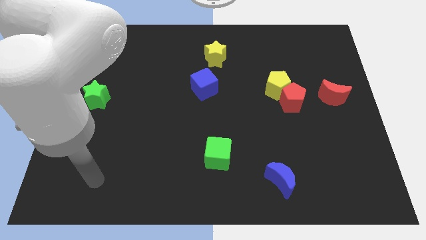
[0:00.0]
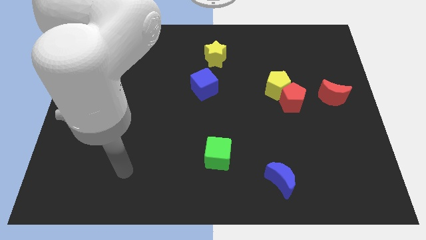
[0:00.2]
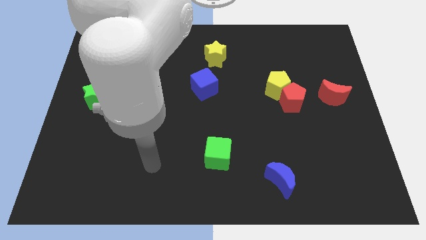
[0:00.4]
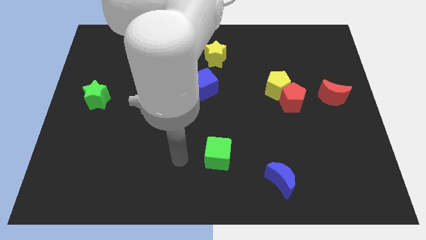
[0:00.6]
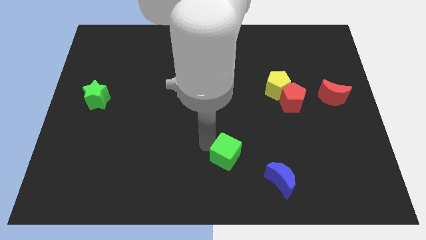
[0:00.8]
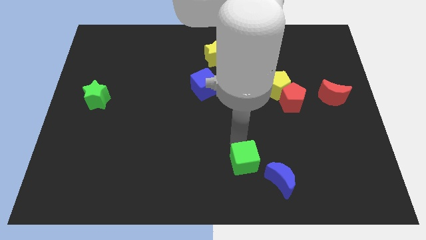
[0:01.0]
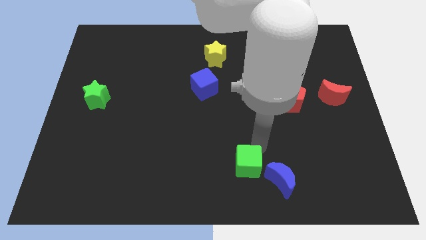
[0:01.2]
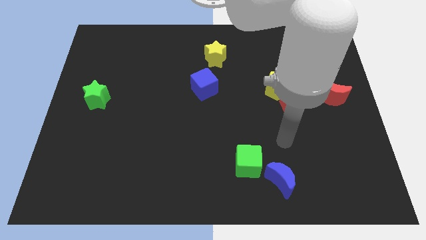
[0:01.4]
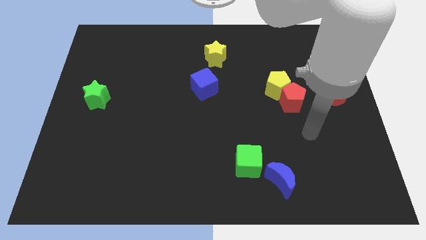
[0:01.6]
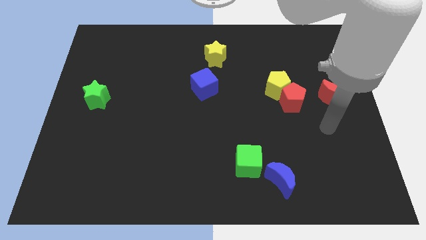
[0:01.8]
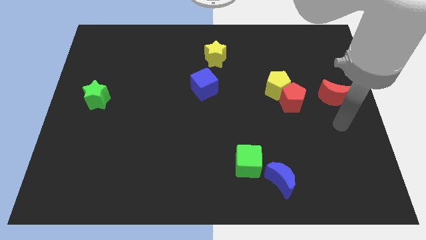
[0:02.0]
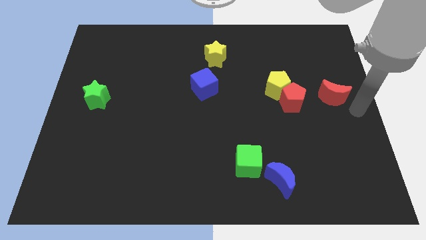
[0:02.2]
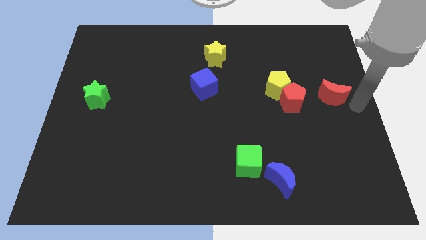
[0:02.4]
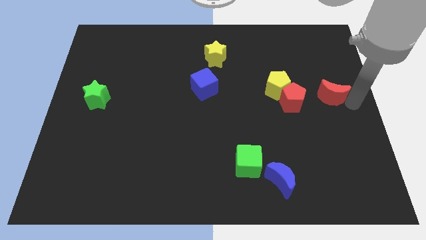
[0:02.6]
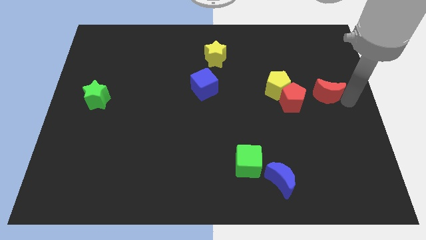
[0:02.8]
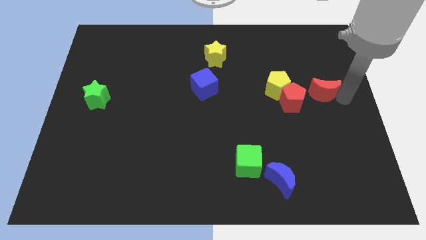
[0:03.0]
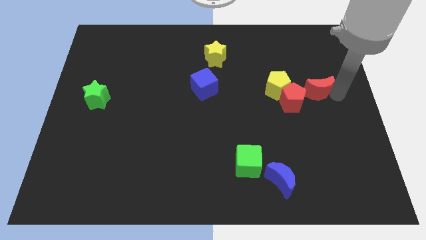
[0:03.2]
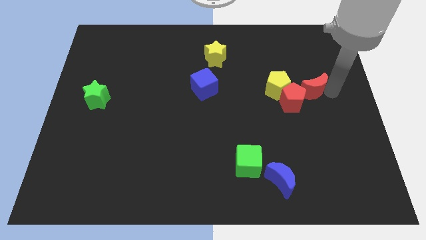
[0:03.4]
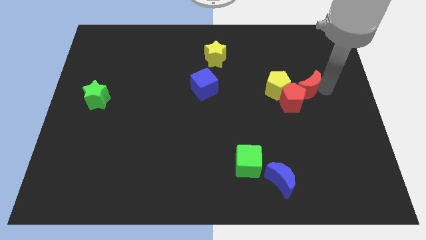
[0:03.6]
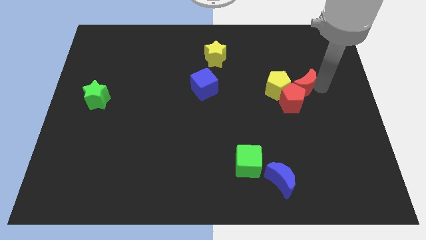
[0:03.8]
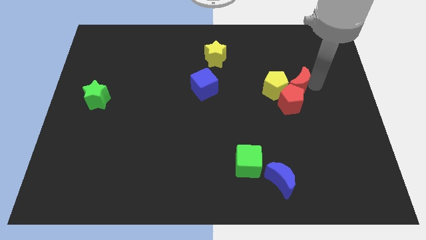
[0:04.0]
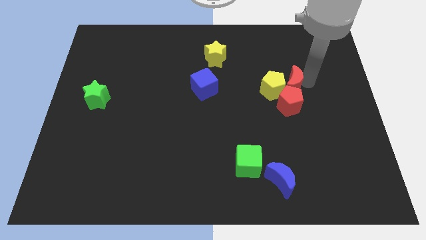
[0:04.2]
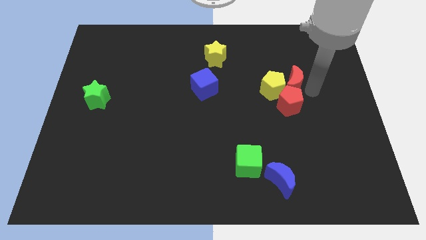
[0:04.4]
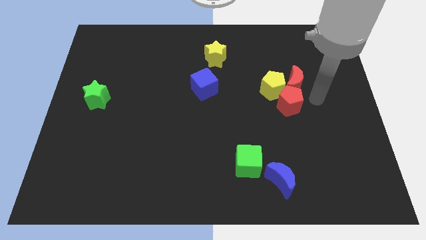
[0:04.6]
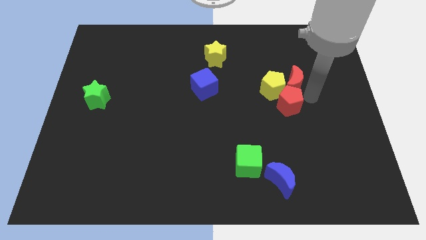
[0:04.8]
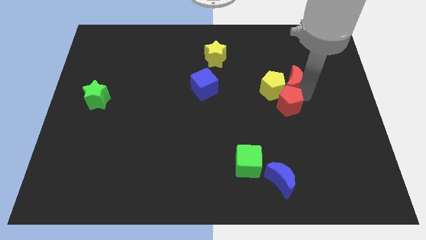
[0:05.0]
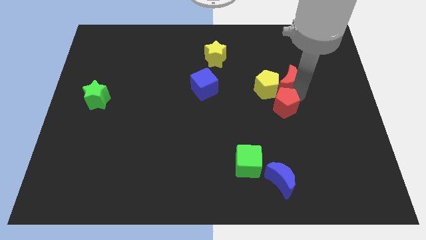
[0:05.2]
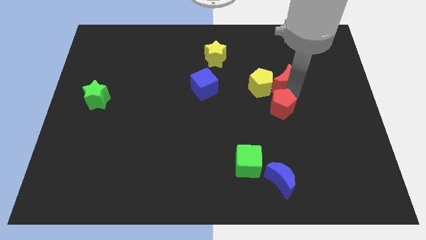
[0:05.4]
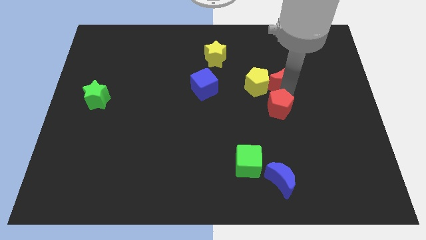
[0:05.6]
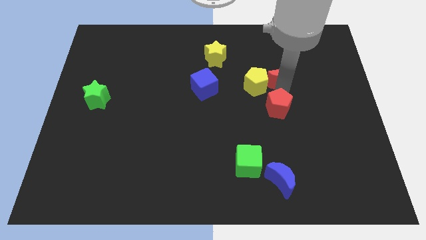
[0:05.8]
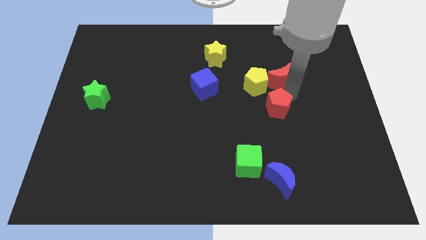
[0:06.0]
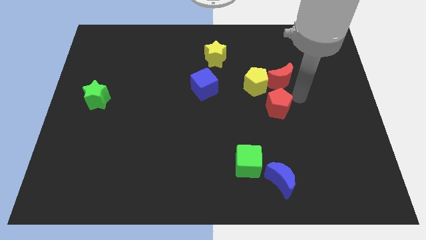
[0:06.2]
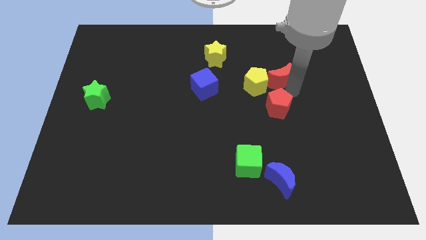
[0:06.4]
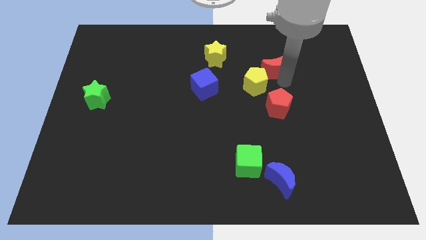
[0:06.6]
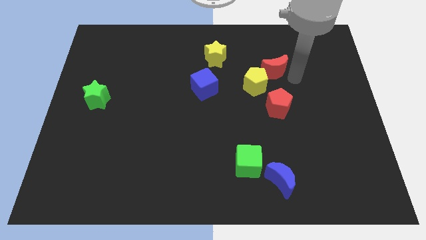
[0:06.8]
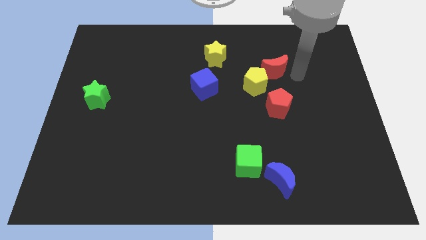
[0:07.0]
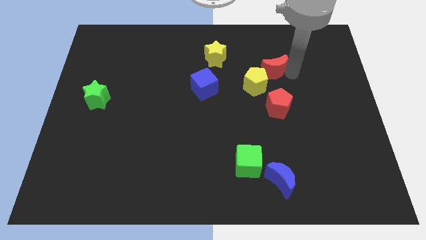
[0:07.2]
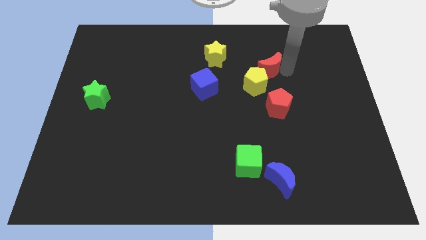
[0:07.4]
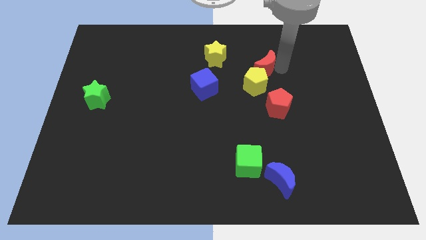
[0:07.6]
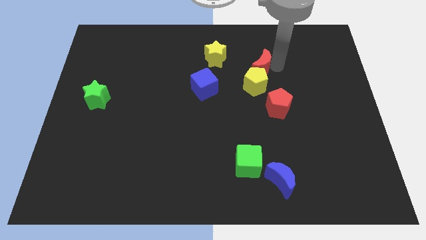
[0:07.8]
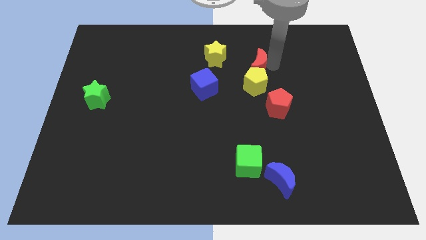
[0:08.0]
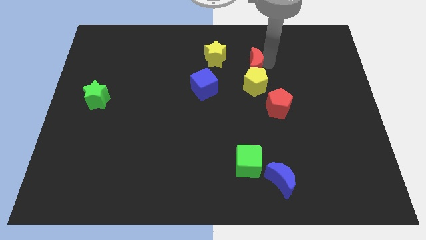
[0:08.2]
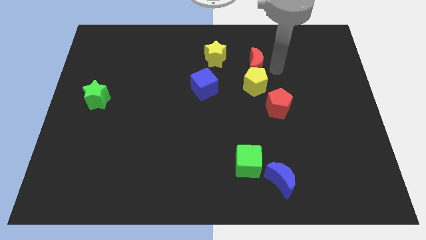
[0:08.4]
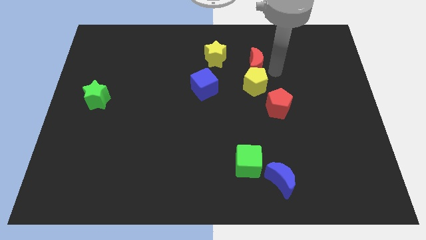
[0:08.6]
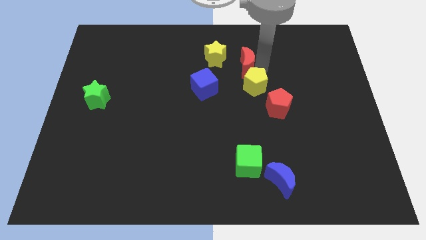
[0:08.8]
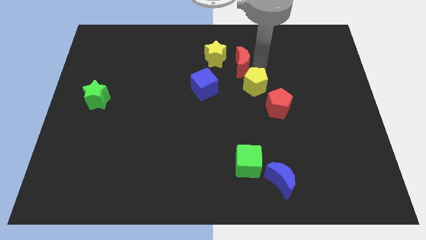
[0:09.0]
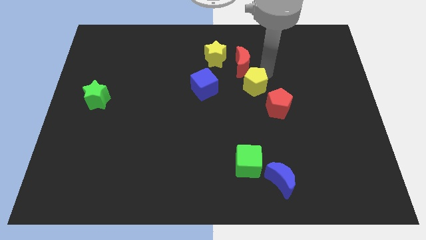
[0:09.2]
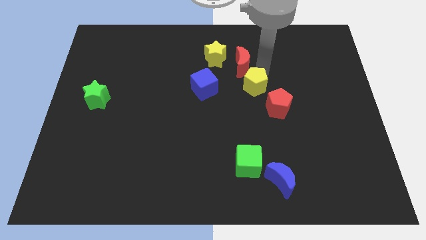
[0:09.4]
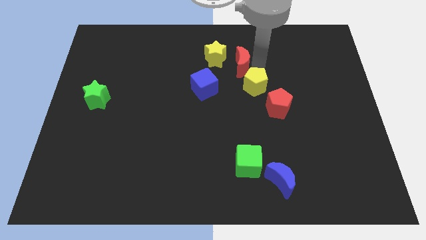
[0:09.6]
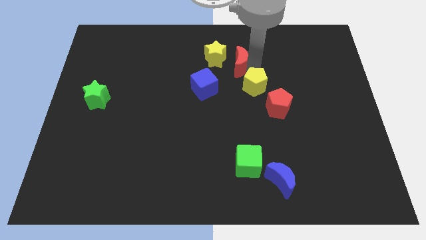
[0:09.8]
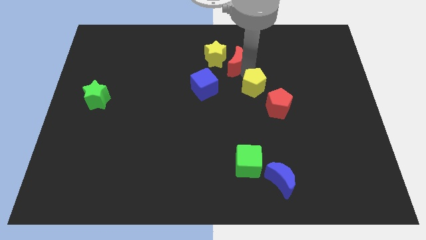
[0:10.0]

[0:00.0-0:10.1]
move the red moon to the yellow star

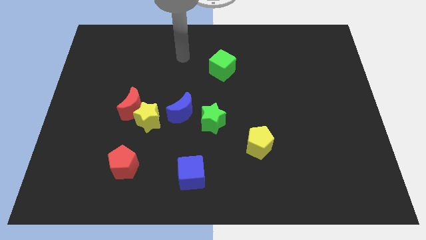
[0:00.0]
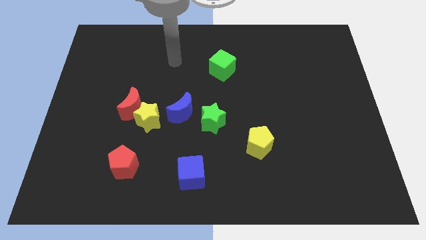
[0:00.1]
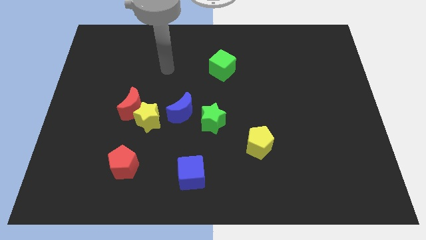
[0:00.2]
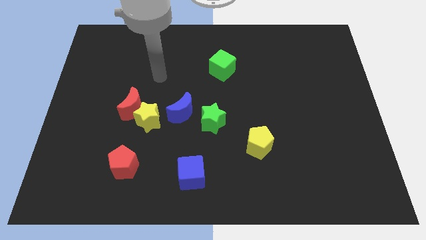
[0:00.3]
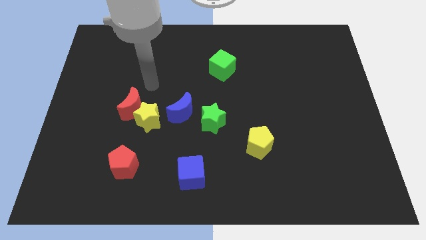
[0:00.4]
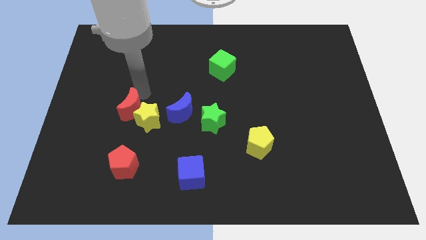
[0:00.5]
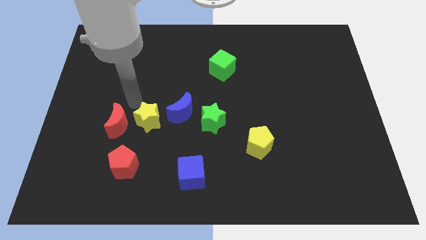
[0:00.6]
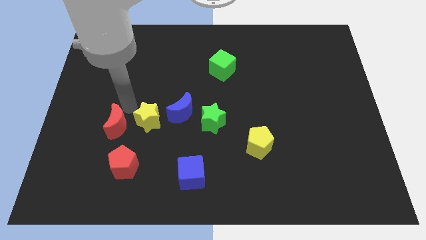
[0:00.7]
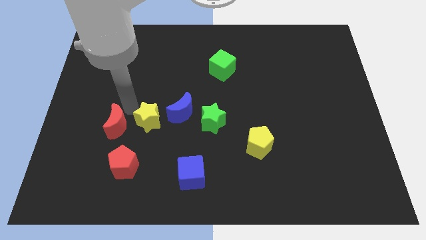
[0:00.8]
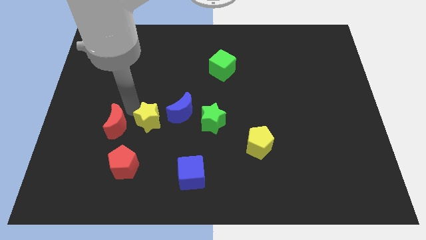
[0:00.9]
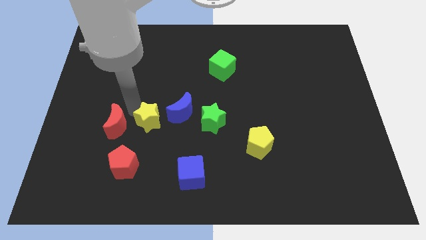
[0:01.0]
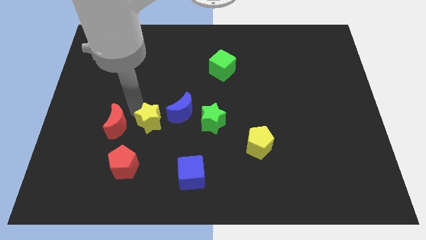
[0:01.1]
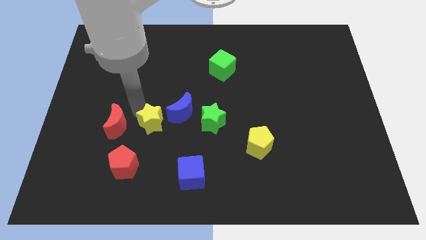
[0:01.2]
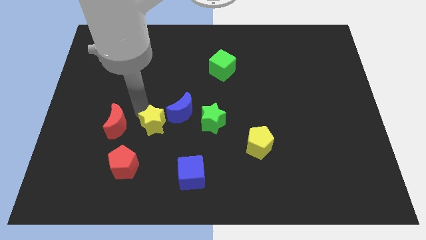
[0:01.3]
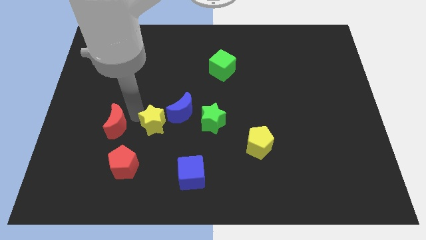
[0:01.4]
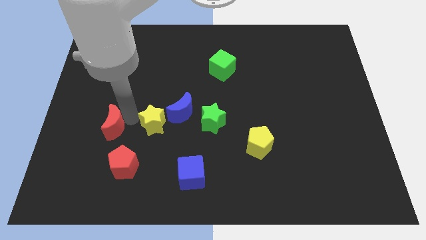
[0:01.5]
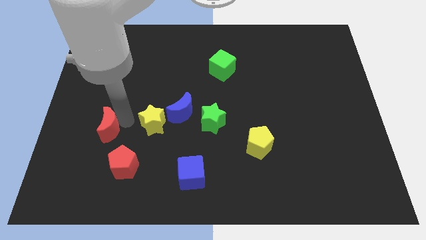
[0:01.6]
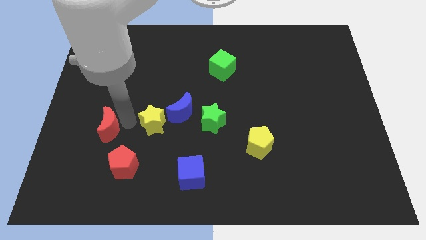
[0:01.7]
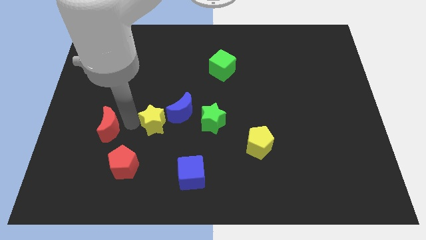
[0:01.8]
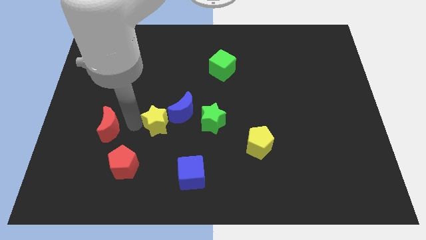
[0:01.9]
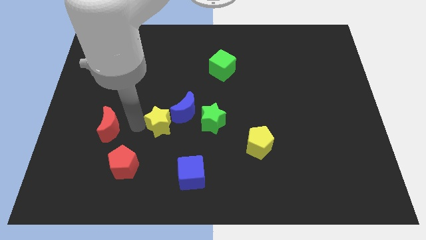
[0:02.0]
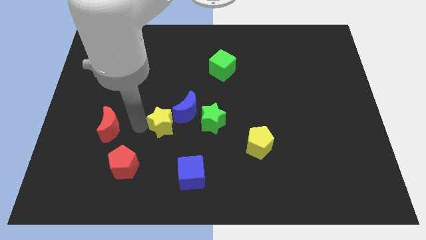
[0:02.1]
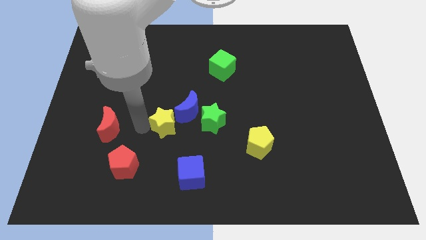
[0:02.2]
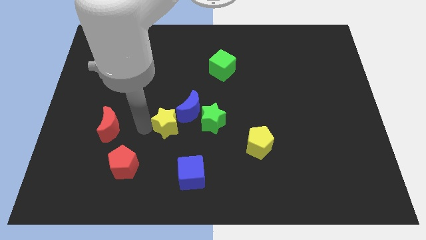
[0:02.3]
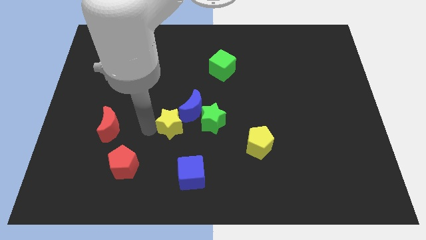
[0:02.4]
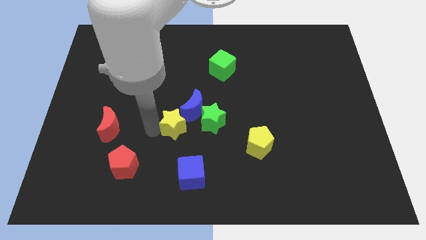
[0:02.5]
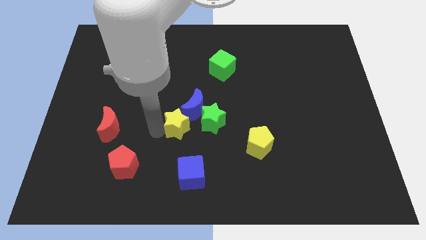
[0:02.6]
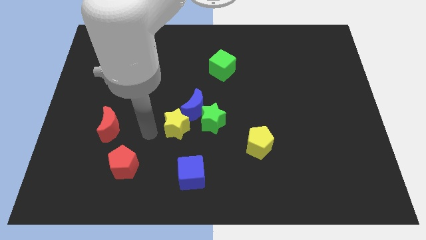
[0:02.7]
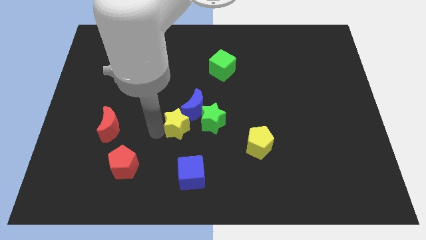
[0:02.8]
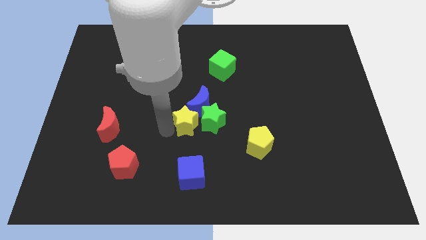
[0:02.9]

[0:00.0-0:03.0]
move the yellow star towards the green star
